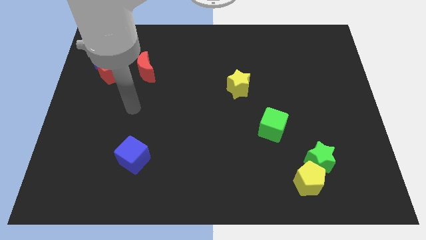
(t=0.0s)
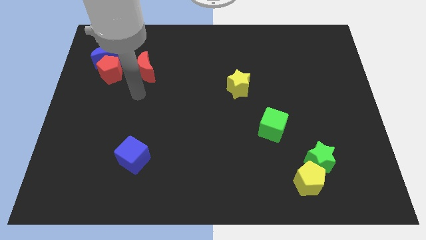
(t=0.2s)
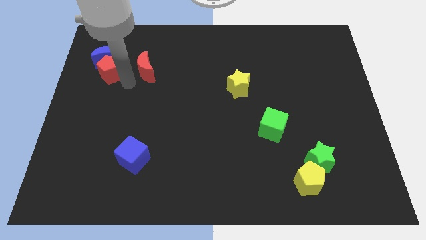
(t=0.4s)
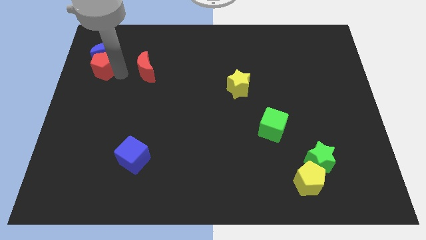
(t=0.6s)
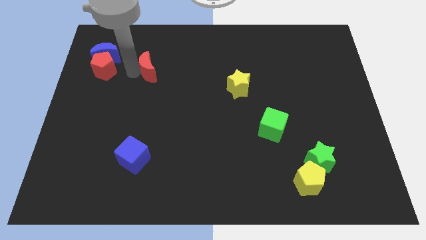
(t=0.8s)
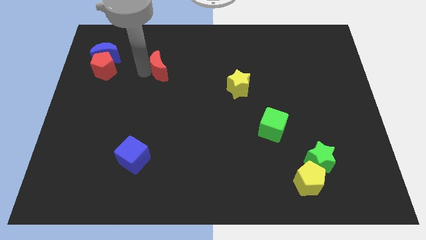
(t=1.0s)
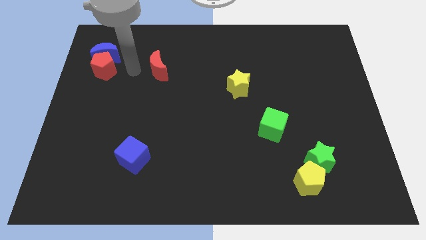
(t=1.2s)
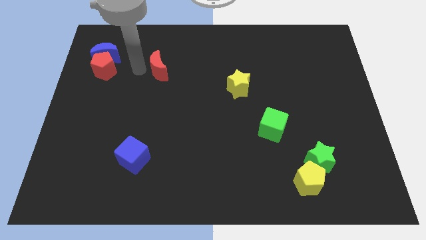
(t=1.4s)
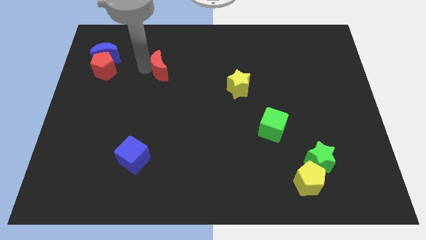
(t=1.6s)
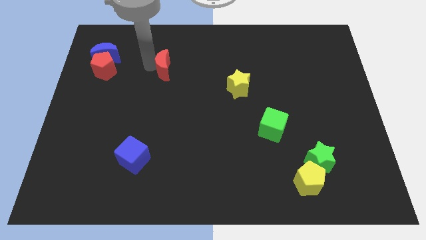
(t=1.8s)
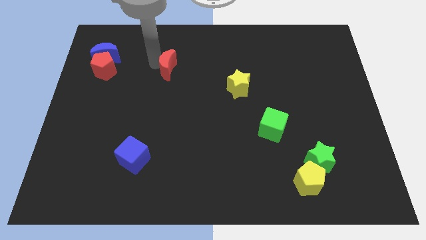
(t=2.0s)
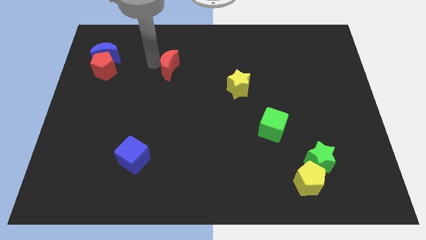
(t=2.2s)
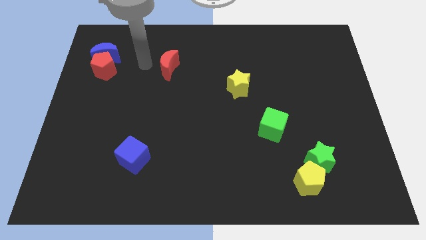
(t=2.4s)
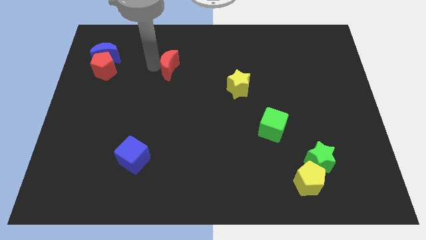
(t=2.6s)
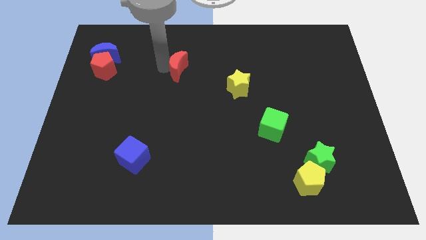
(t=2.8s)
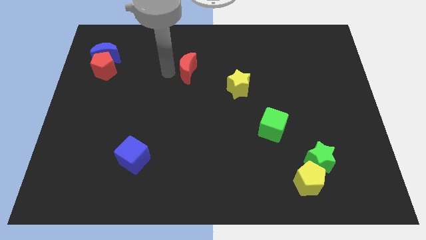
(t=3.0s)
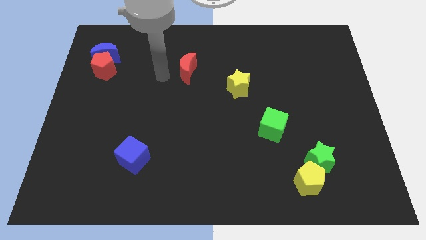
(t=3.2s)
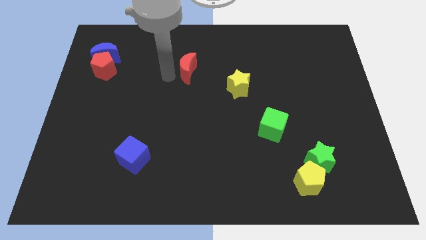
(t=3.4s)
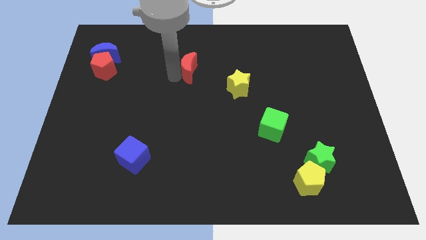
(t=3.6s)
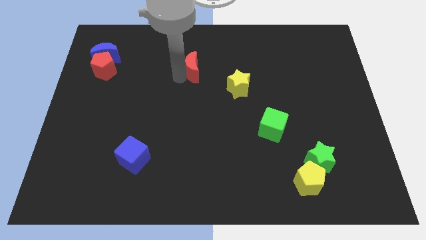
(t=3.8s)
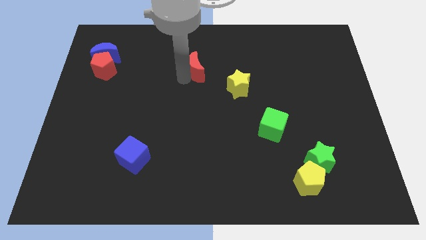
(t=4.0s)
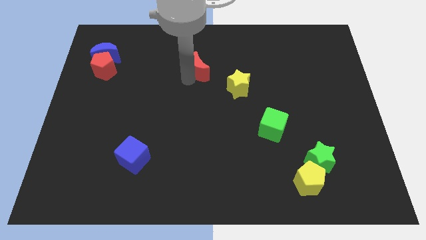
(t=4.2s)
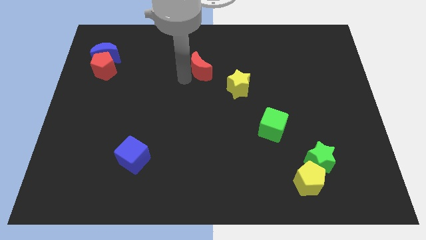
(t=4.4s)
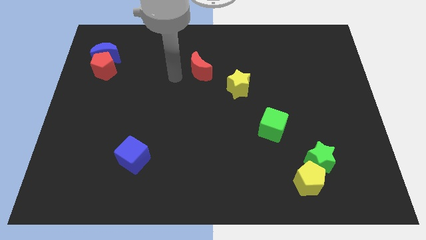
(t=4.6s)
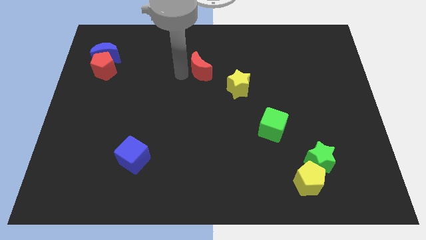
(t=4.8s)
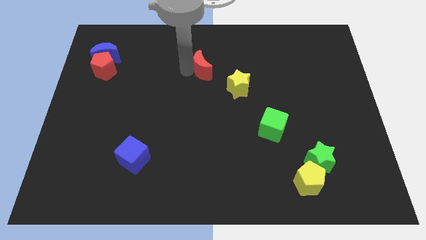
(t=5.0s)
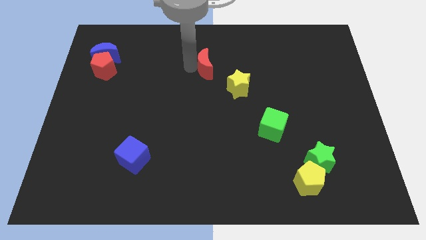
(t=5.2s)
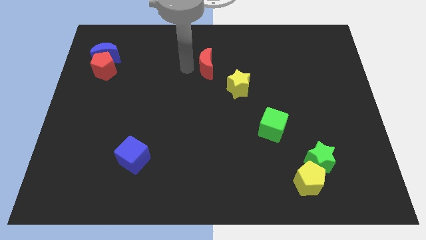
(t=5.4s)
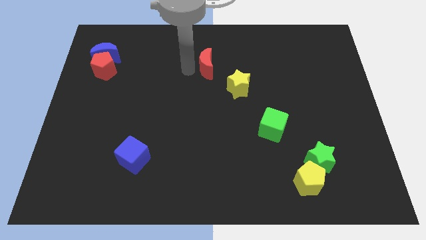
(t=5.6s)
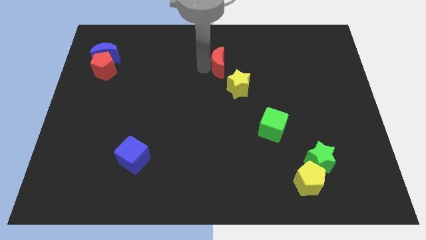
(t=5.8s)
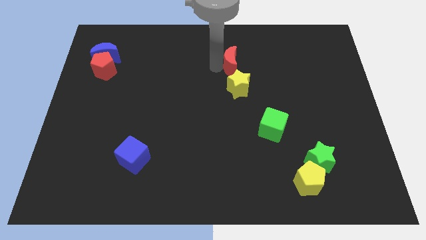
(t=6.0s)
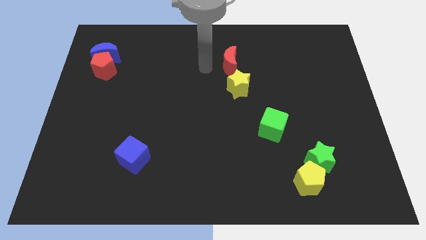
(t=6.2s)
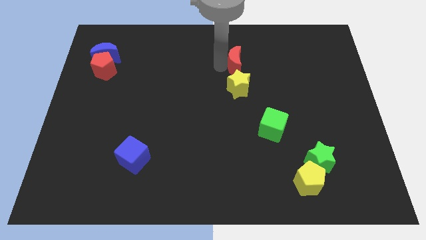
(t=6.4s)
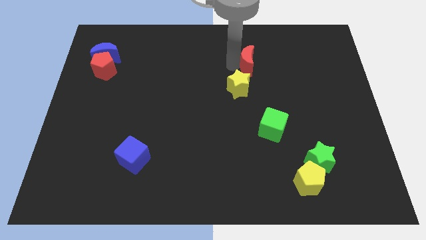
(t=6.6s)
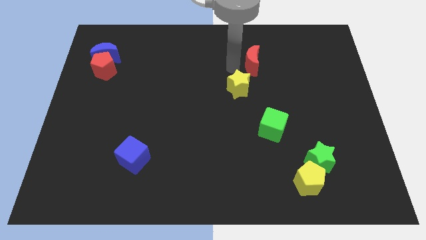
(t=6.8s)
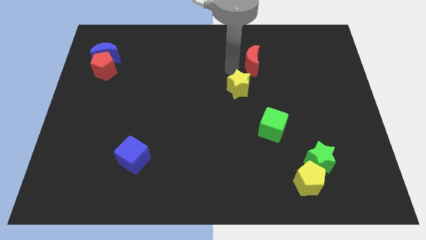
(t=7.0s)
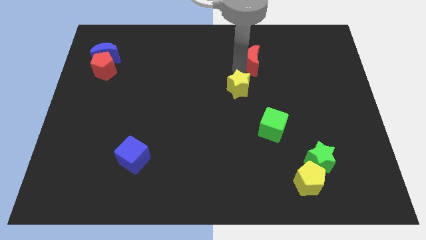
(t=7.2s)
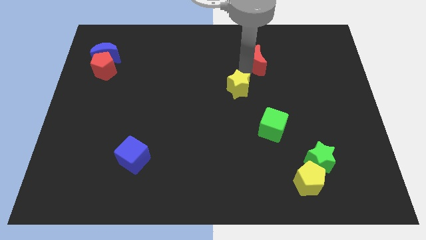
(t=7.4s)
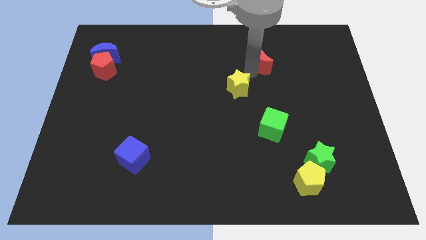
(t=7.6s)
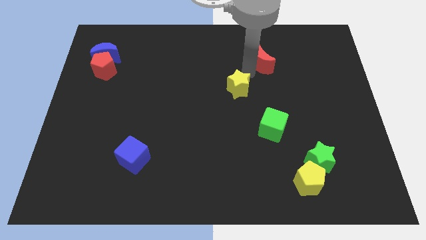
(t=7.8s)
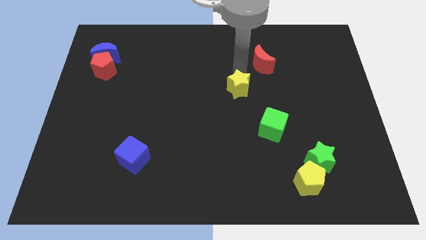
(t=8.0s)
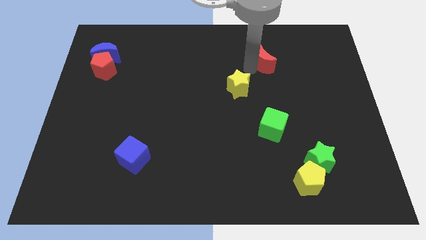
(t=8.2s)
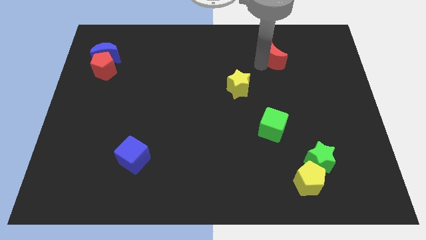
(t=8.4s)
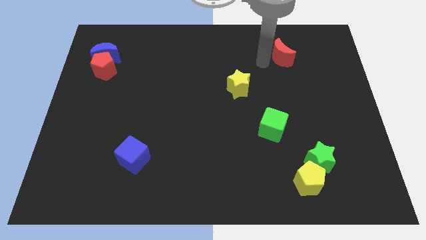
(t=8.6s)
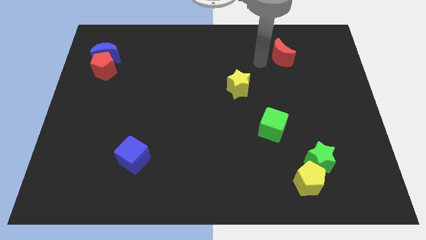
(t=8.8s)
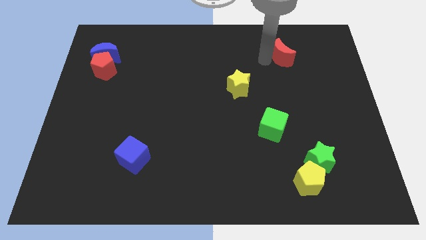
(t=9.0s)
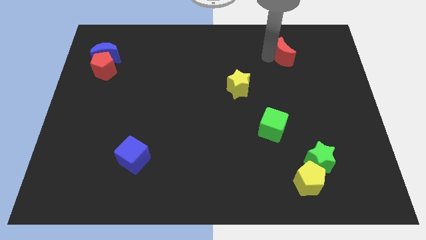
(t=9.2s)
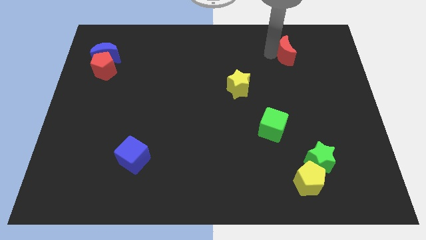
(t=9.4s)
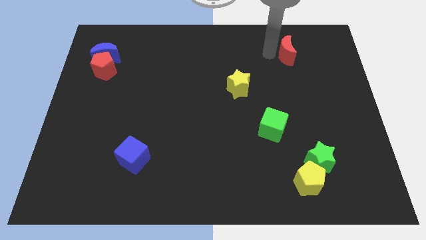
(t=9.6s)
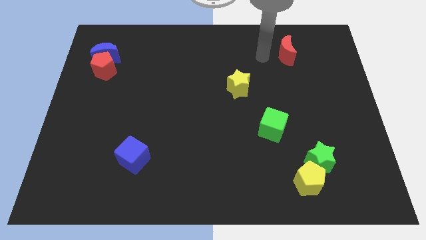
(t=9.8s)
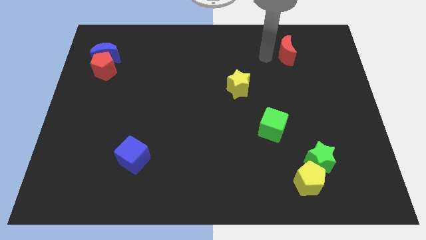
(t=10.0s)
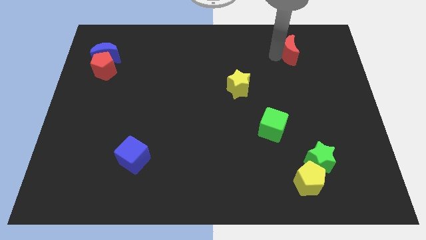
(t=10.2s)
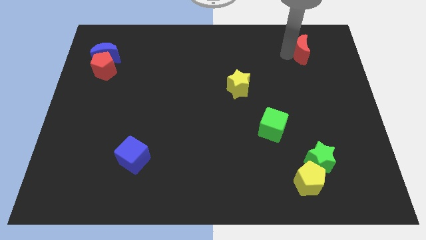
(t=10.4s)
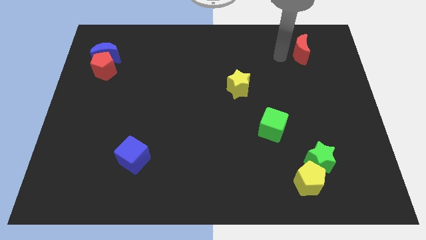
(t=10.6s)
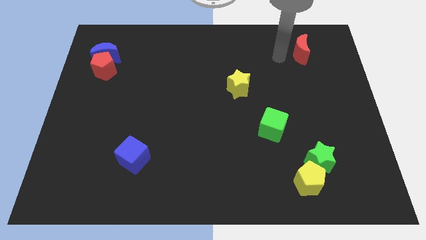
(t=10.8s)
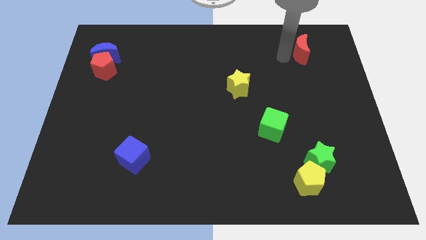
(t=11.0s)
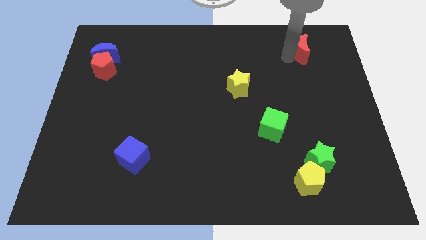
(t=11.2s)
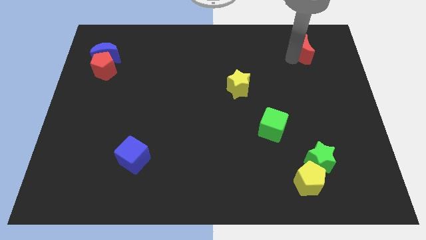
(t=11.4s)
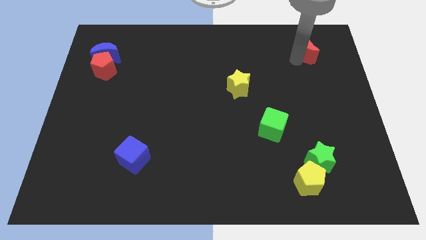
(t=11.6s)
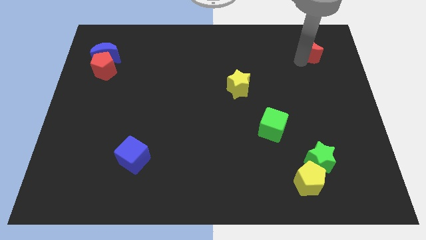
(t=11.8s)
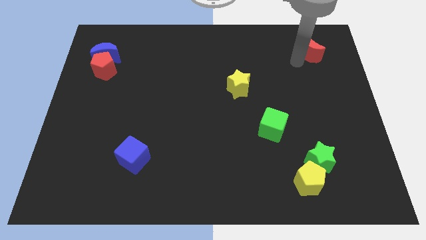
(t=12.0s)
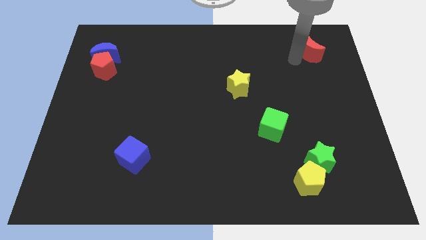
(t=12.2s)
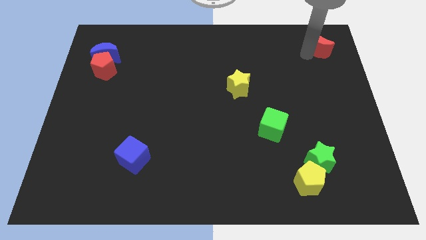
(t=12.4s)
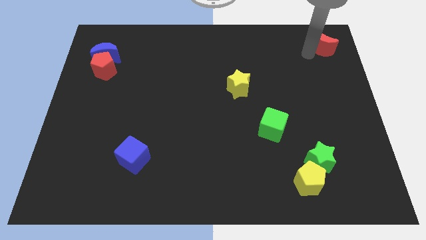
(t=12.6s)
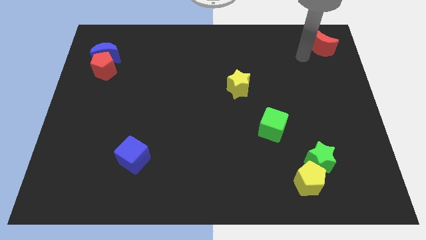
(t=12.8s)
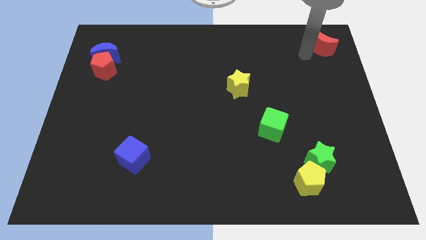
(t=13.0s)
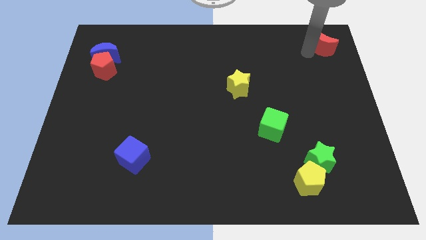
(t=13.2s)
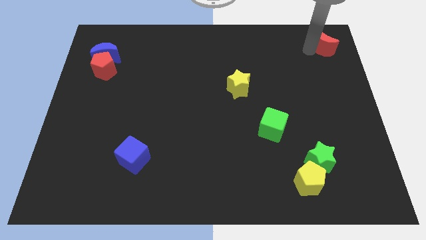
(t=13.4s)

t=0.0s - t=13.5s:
slide the red moon to the upper right corner
